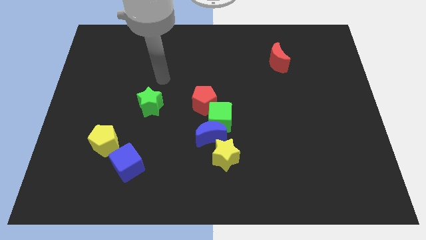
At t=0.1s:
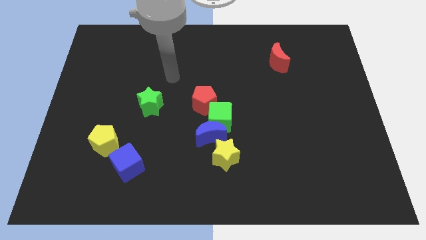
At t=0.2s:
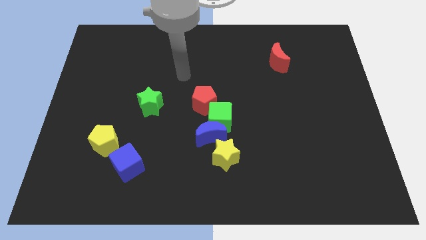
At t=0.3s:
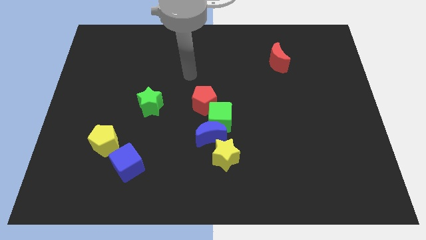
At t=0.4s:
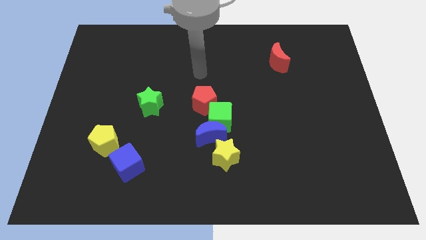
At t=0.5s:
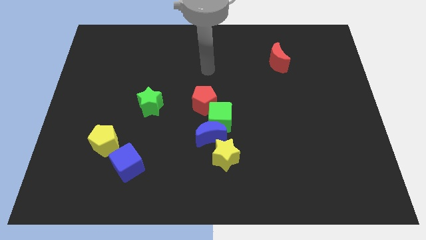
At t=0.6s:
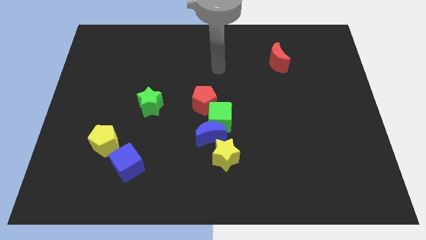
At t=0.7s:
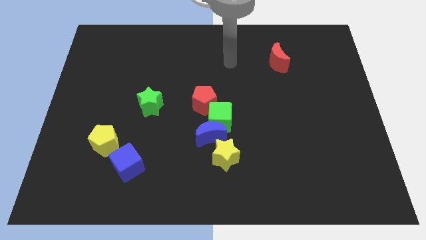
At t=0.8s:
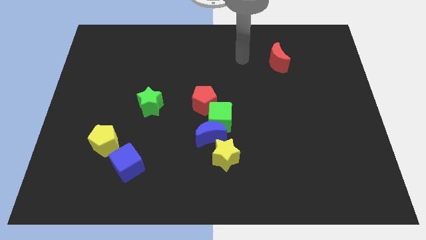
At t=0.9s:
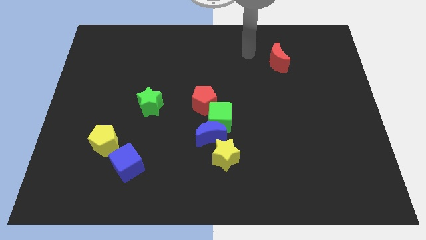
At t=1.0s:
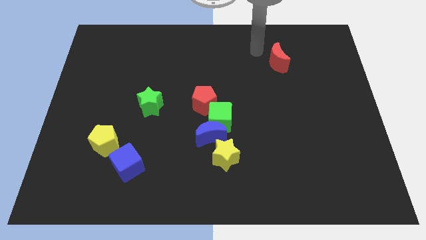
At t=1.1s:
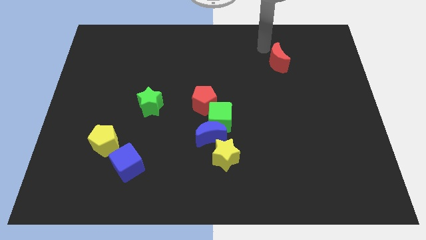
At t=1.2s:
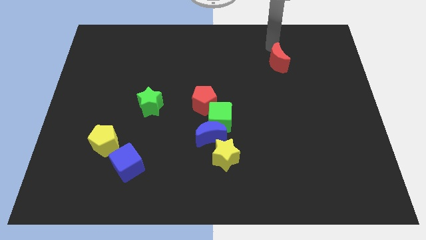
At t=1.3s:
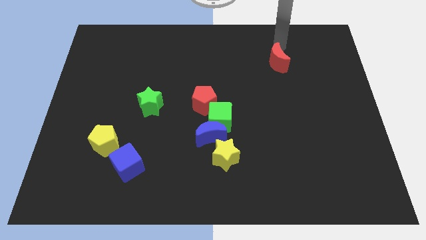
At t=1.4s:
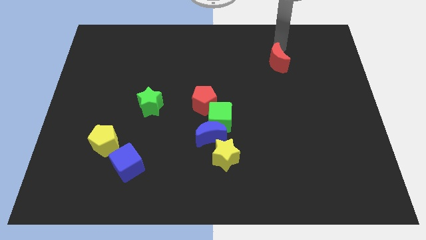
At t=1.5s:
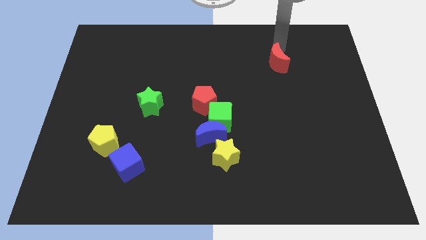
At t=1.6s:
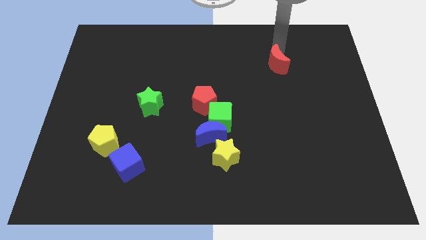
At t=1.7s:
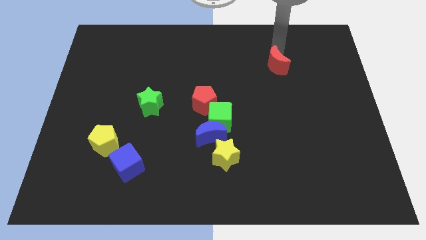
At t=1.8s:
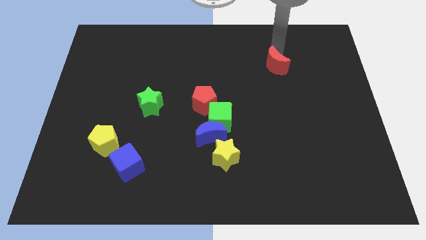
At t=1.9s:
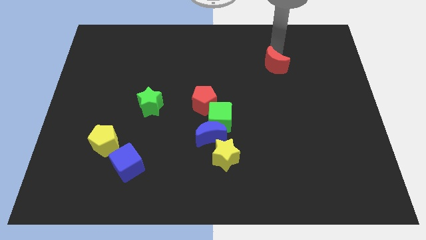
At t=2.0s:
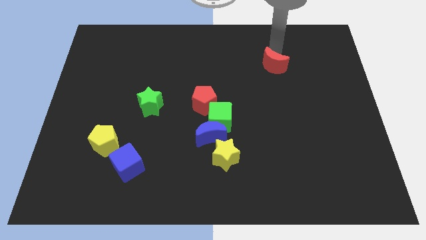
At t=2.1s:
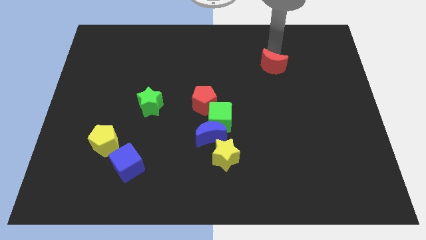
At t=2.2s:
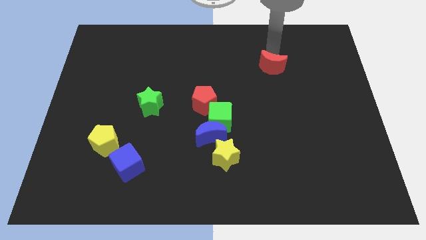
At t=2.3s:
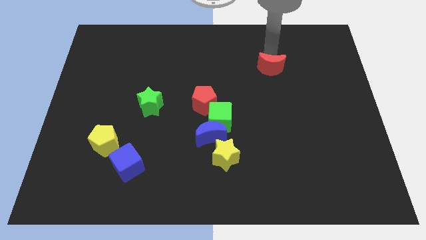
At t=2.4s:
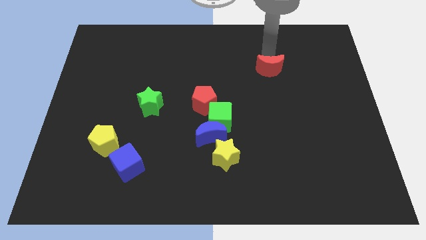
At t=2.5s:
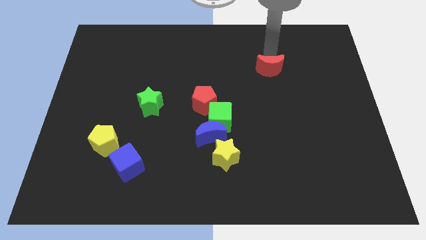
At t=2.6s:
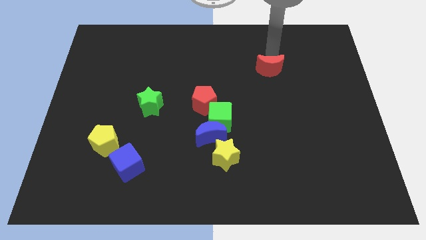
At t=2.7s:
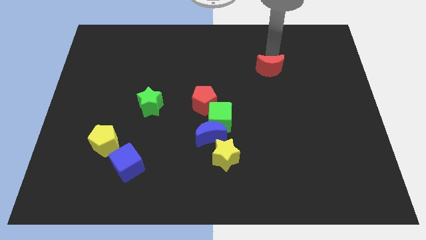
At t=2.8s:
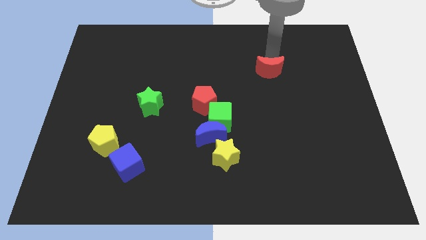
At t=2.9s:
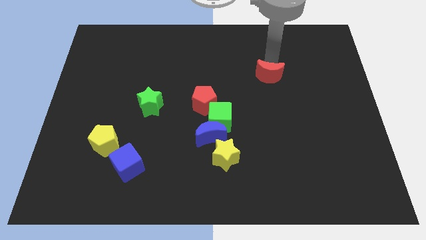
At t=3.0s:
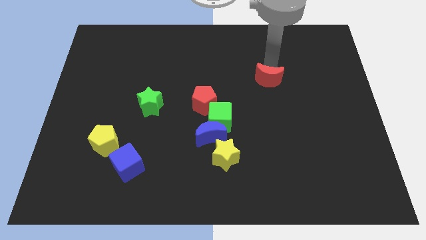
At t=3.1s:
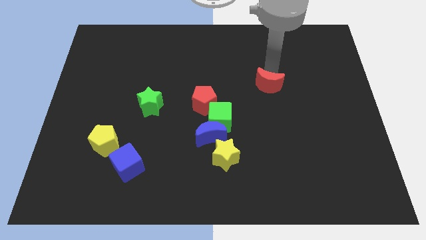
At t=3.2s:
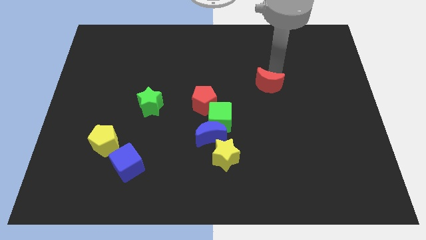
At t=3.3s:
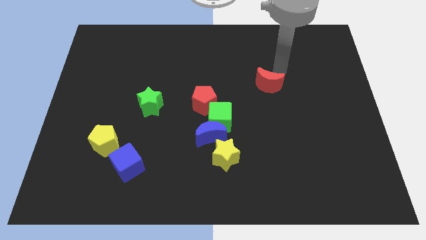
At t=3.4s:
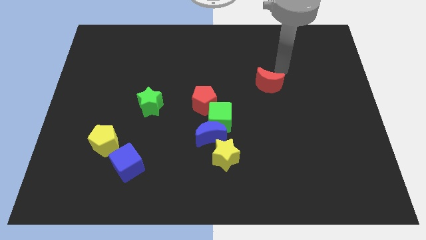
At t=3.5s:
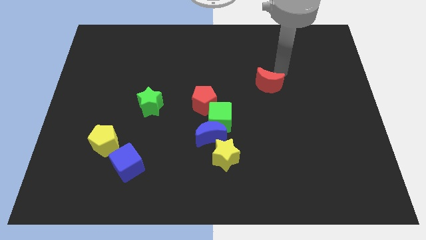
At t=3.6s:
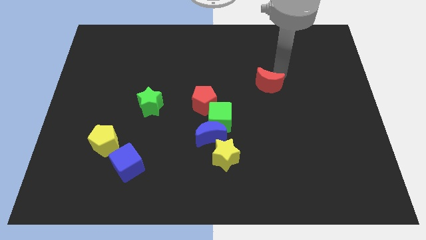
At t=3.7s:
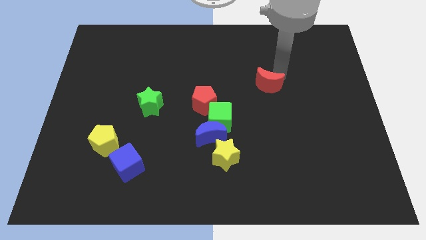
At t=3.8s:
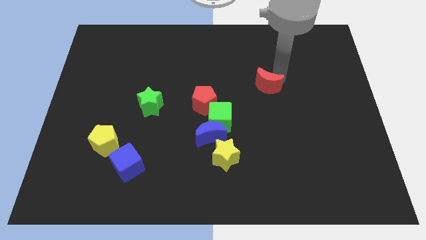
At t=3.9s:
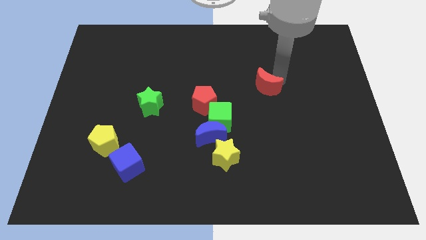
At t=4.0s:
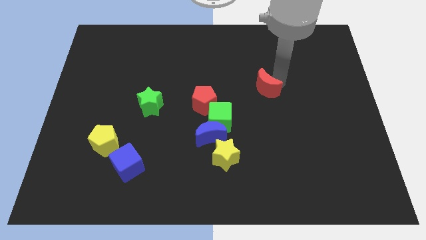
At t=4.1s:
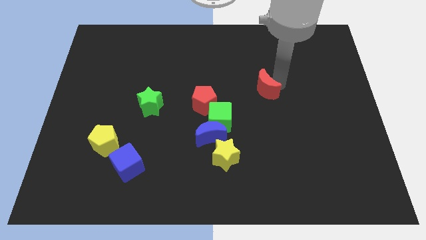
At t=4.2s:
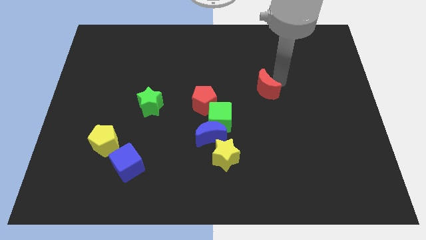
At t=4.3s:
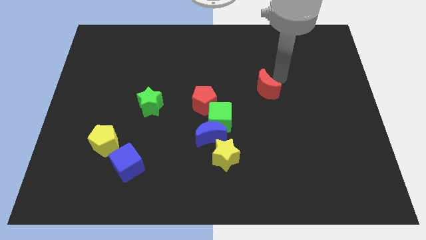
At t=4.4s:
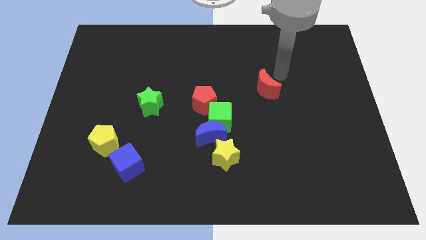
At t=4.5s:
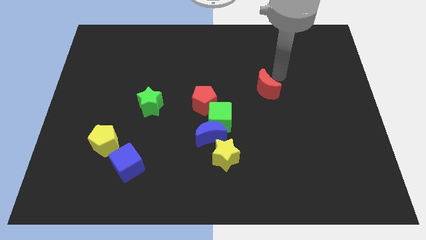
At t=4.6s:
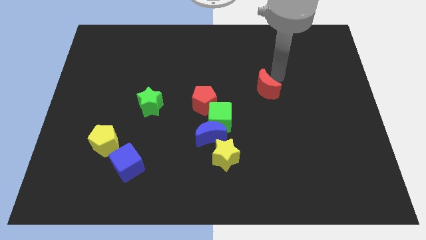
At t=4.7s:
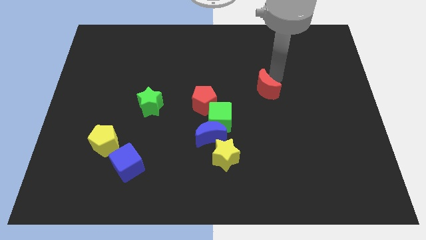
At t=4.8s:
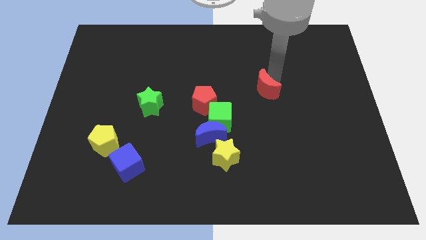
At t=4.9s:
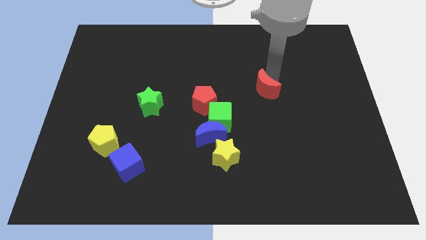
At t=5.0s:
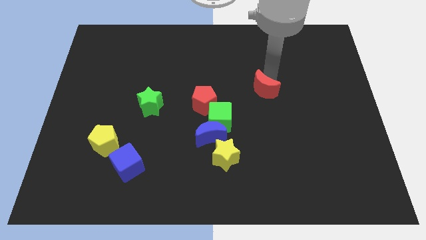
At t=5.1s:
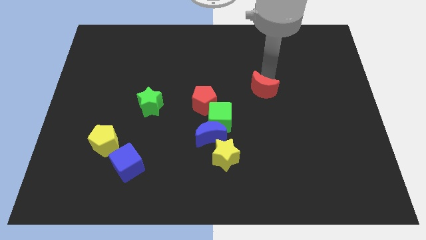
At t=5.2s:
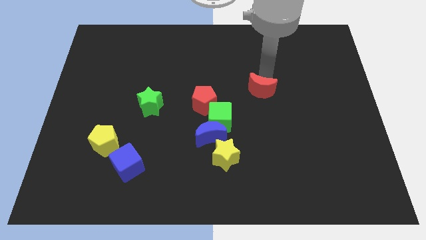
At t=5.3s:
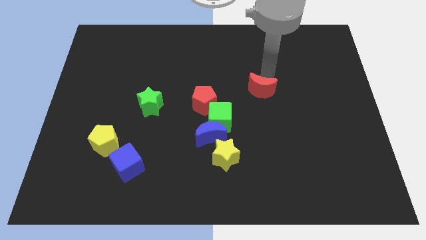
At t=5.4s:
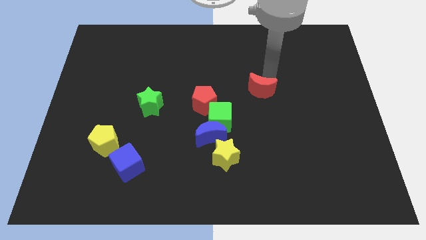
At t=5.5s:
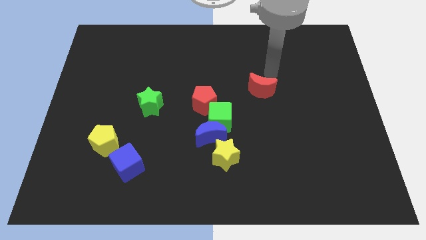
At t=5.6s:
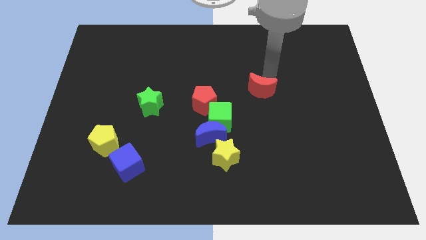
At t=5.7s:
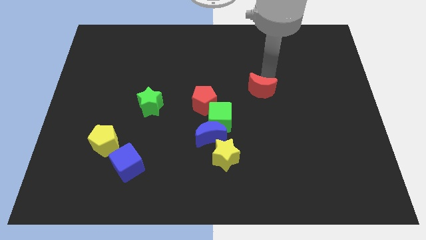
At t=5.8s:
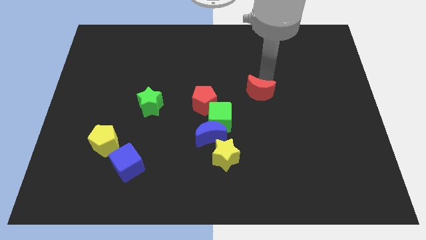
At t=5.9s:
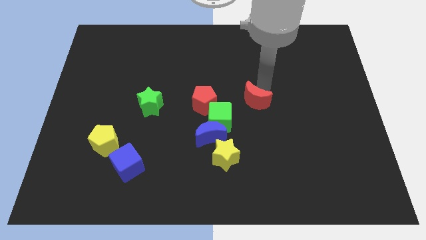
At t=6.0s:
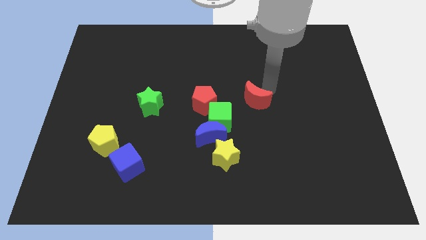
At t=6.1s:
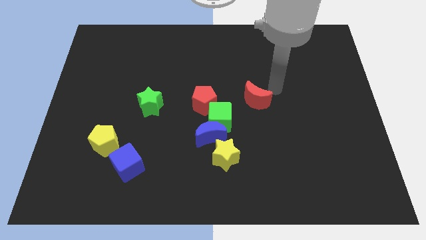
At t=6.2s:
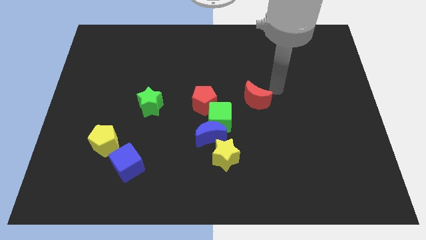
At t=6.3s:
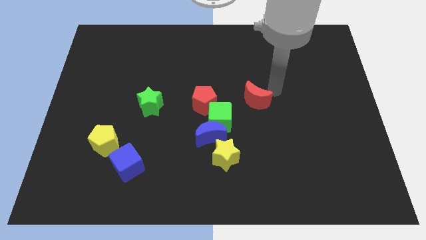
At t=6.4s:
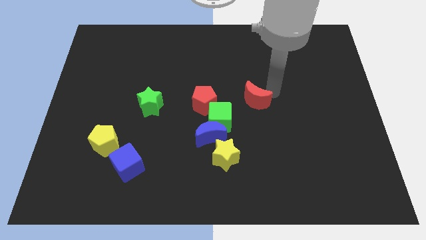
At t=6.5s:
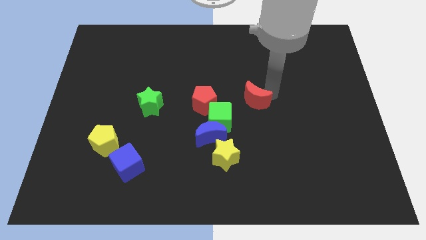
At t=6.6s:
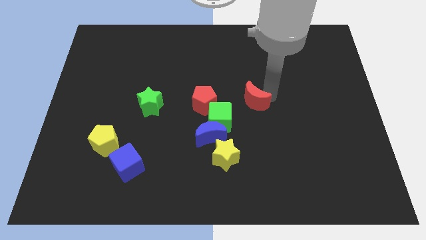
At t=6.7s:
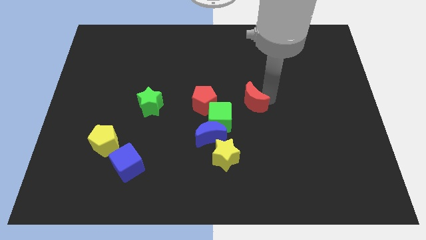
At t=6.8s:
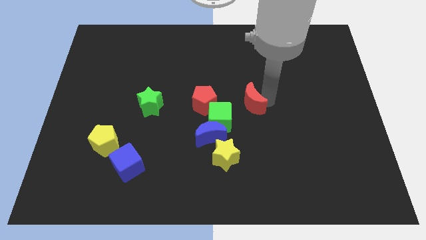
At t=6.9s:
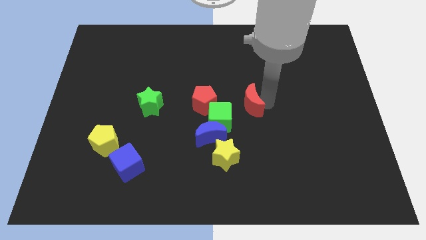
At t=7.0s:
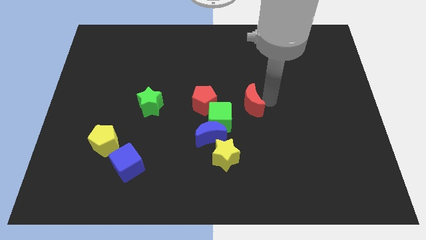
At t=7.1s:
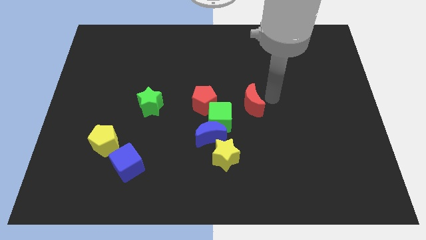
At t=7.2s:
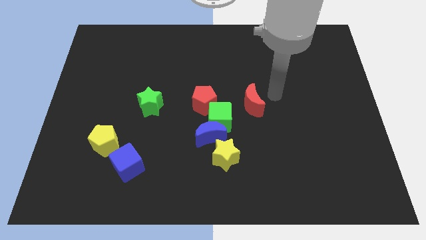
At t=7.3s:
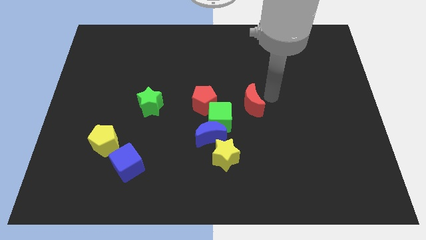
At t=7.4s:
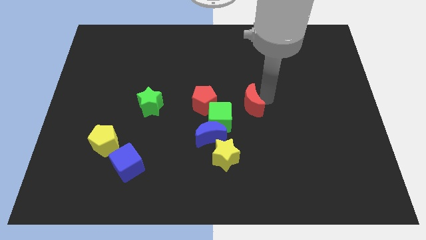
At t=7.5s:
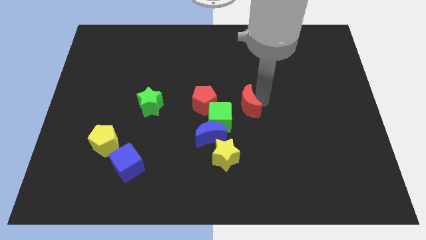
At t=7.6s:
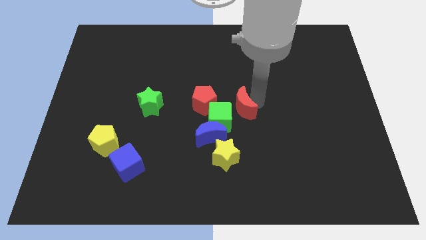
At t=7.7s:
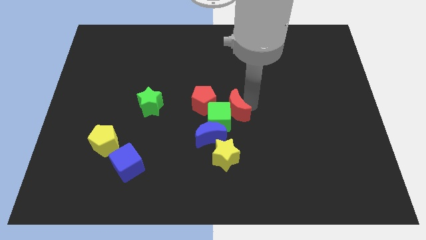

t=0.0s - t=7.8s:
put the red moon to the green cube
